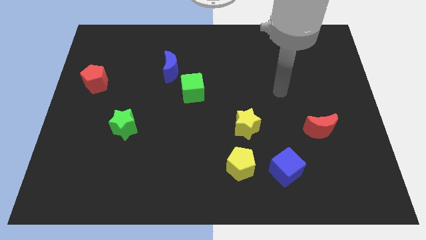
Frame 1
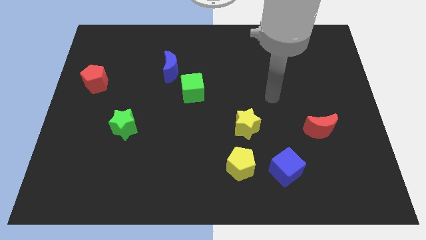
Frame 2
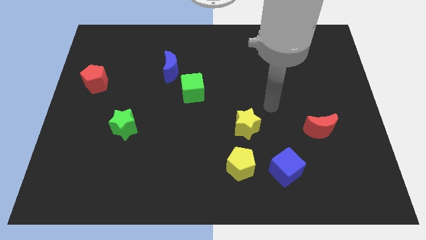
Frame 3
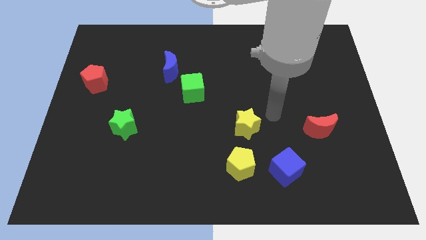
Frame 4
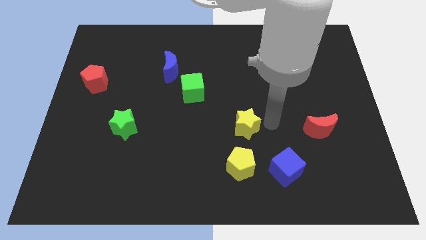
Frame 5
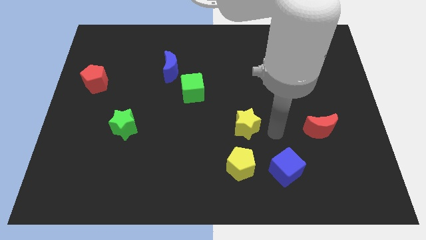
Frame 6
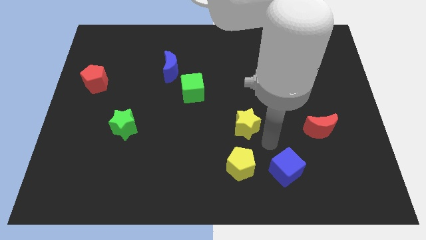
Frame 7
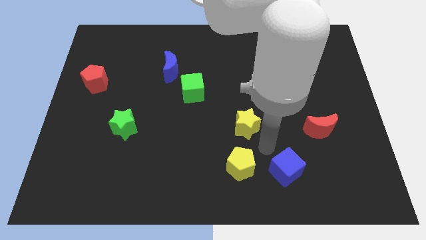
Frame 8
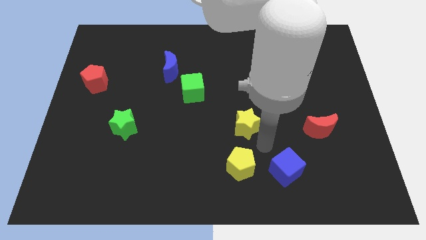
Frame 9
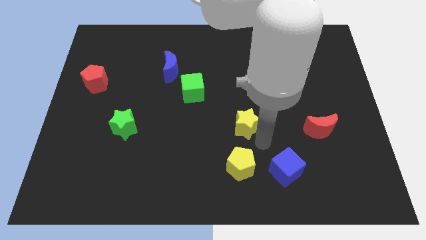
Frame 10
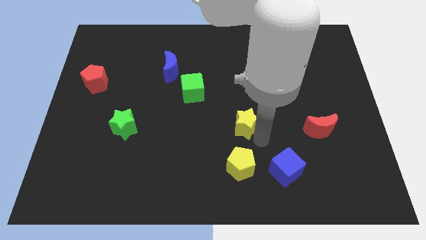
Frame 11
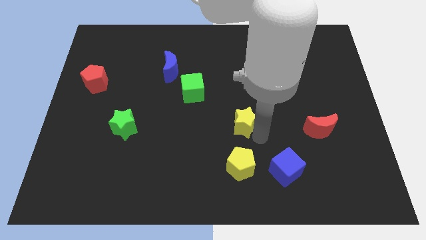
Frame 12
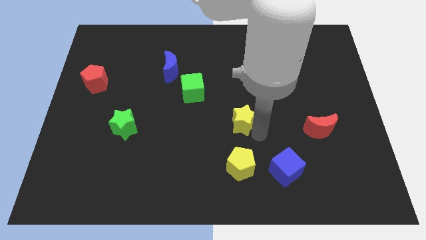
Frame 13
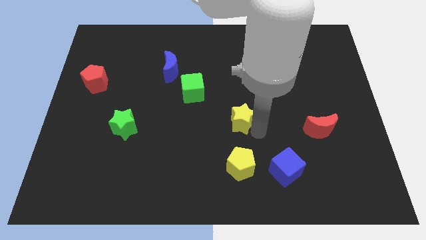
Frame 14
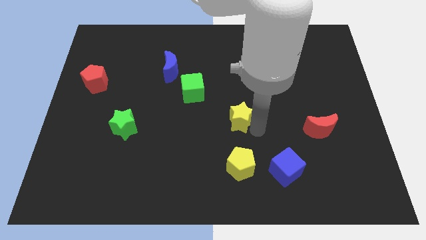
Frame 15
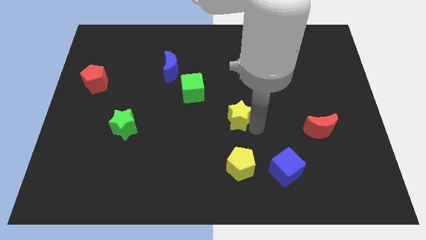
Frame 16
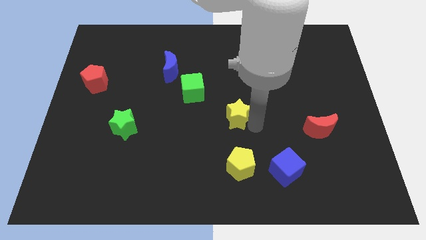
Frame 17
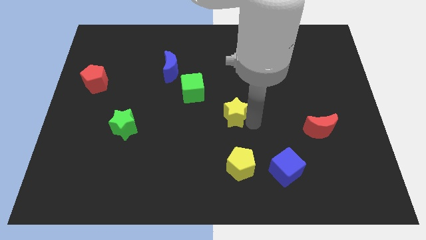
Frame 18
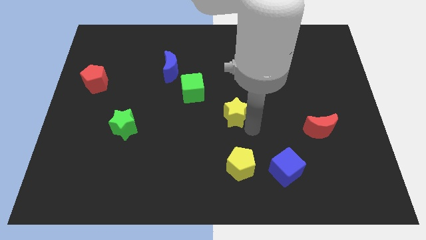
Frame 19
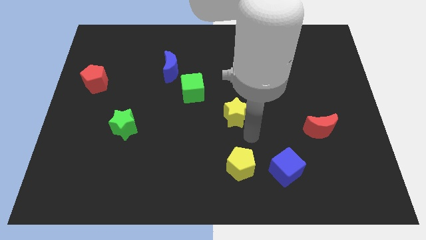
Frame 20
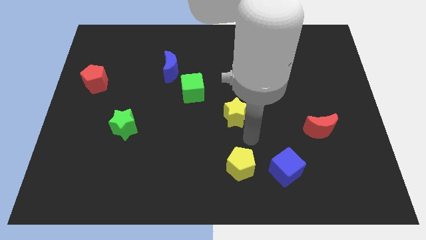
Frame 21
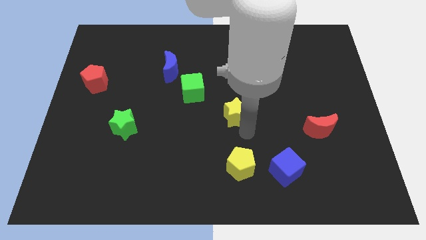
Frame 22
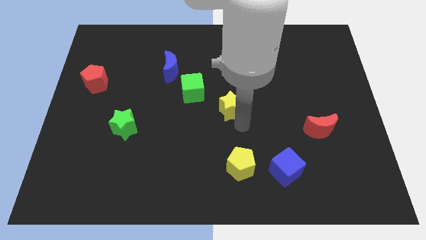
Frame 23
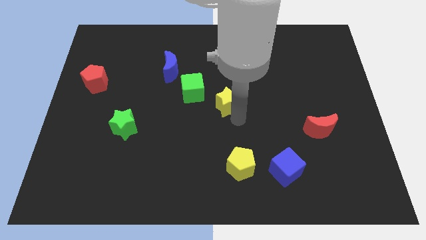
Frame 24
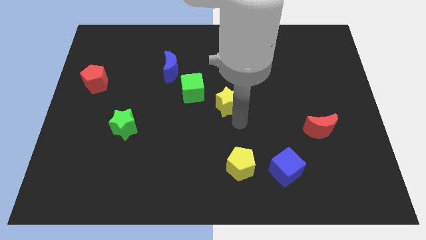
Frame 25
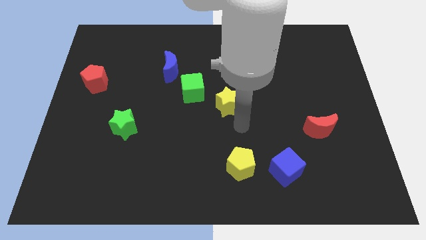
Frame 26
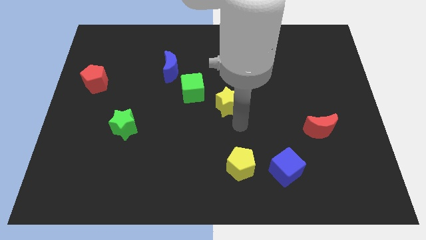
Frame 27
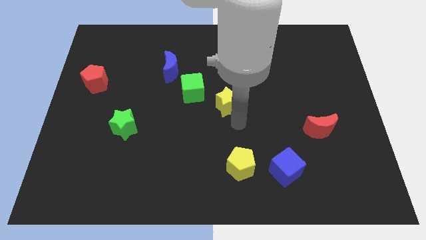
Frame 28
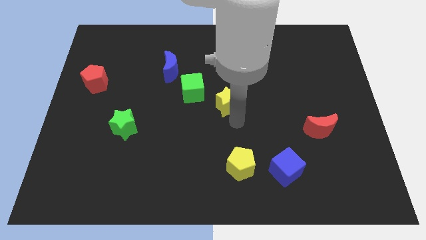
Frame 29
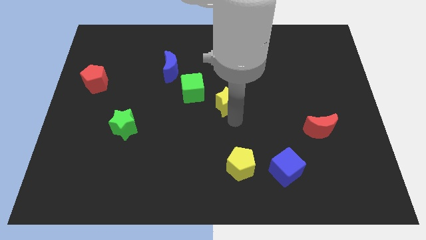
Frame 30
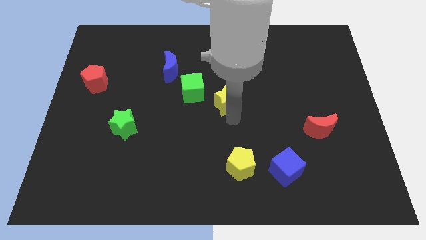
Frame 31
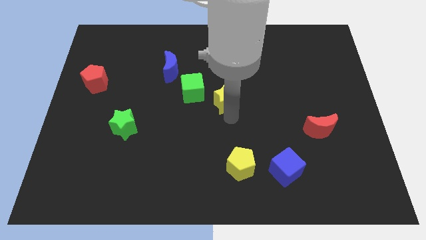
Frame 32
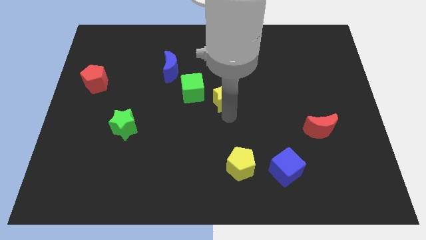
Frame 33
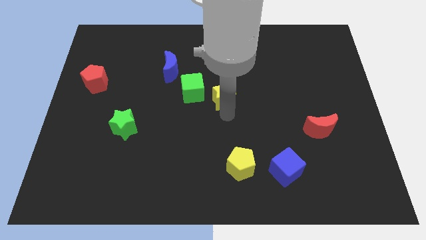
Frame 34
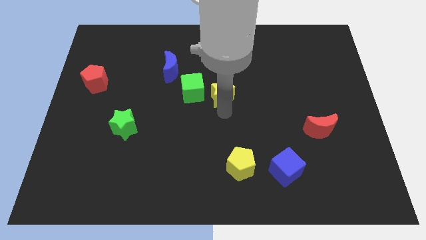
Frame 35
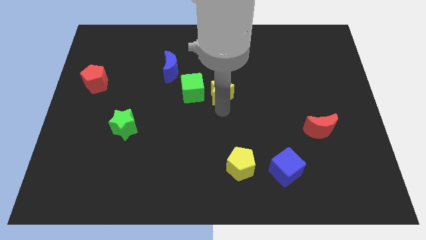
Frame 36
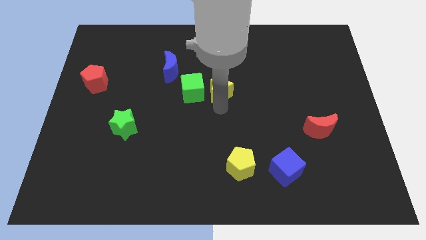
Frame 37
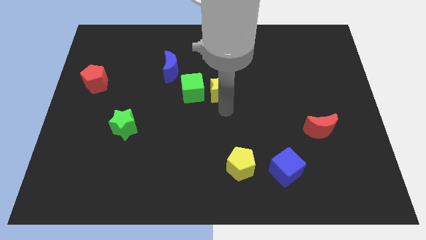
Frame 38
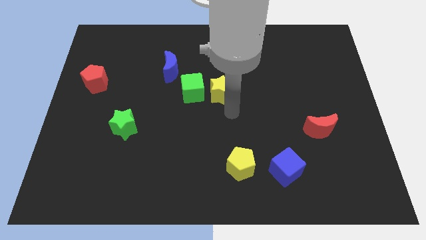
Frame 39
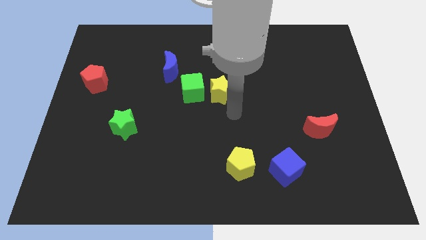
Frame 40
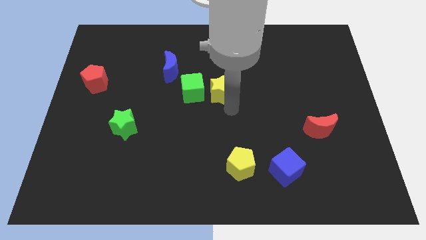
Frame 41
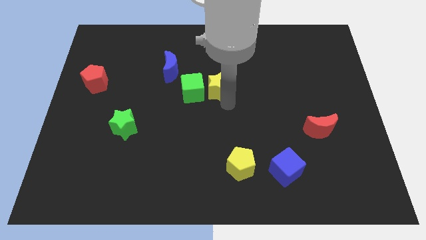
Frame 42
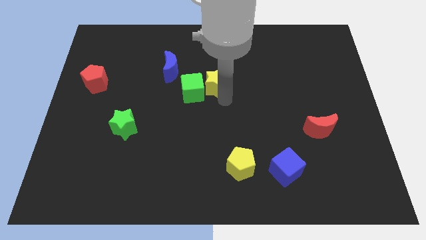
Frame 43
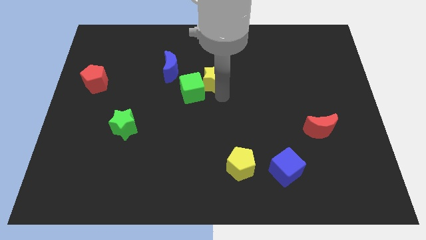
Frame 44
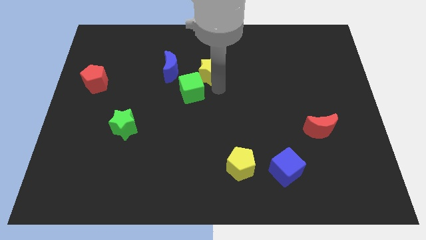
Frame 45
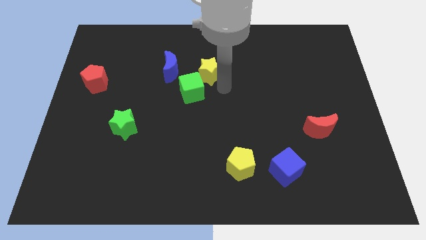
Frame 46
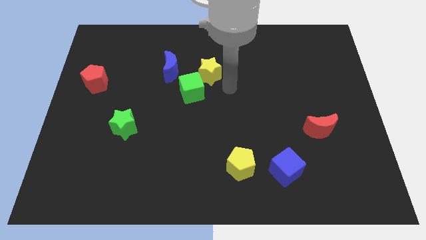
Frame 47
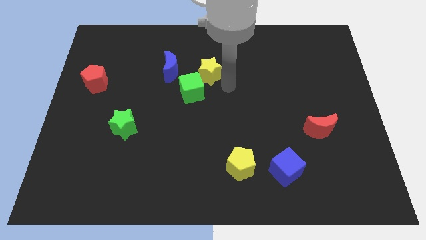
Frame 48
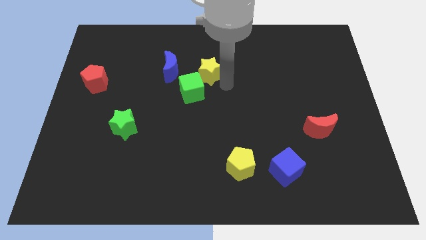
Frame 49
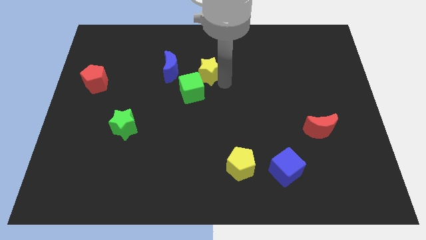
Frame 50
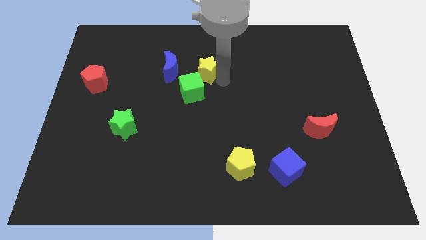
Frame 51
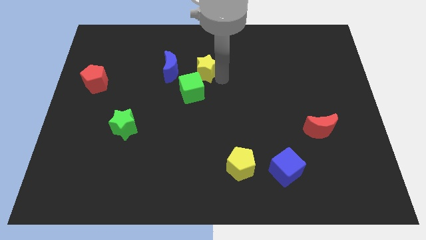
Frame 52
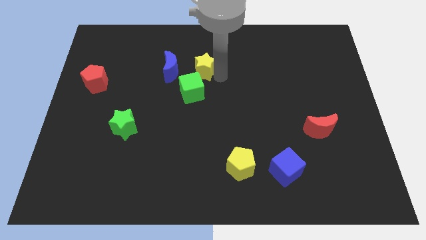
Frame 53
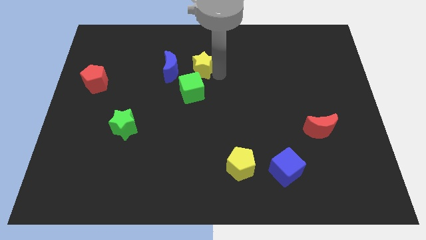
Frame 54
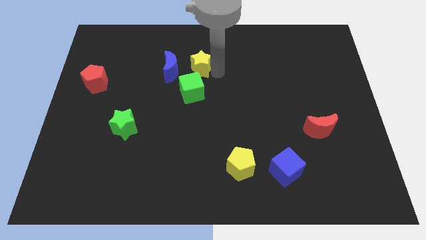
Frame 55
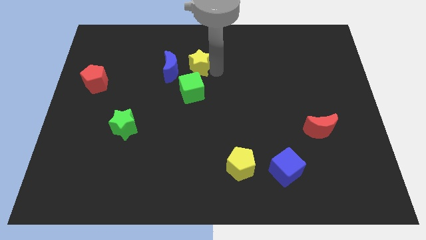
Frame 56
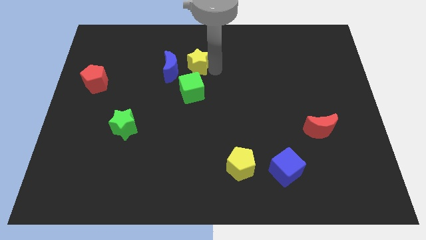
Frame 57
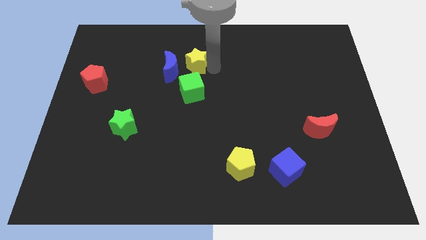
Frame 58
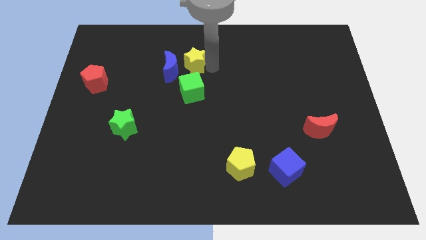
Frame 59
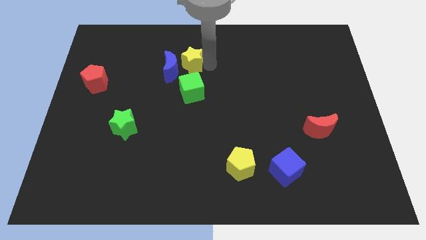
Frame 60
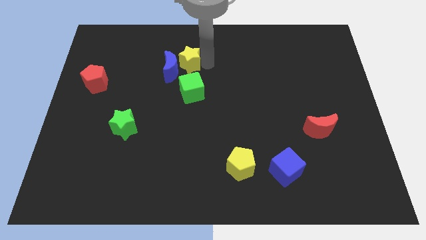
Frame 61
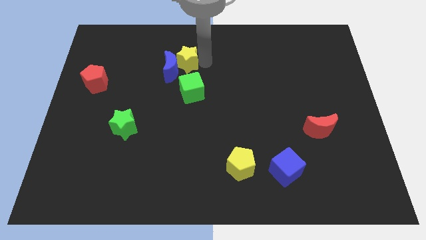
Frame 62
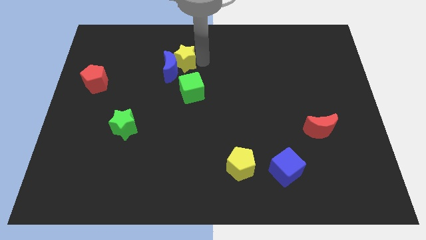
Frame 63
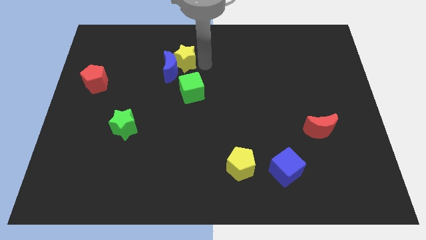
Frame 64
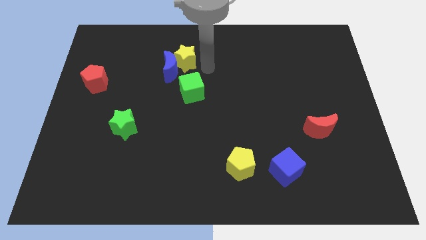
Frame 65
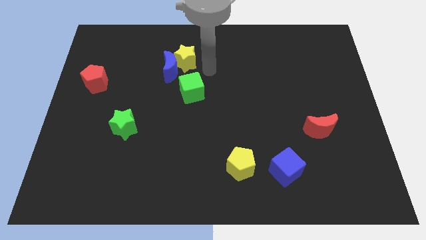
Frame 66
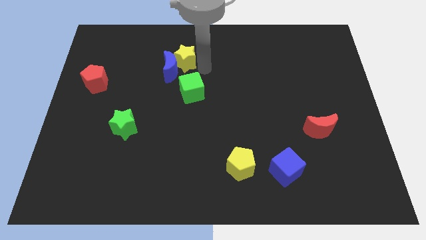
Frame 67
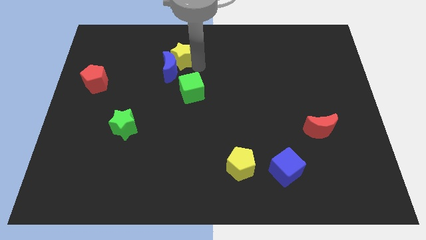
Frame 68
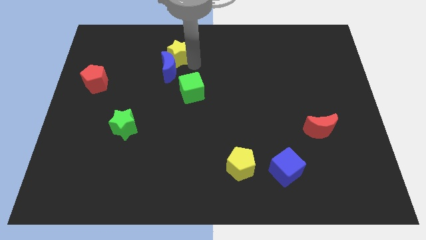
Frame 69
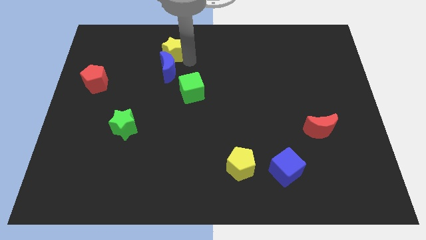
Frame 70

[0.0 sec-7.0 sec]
push the yellow star to the top left of the blue moon

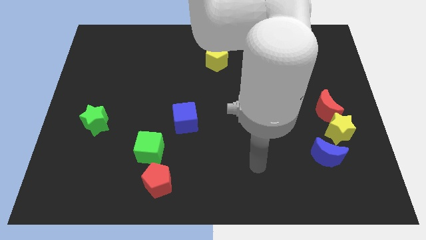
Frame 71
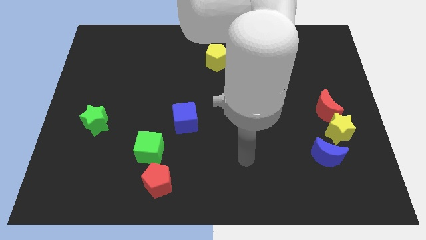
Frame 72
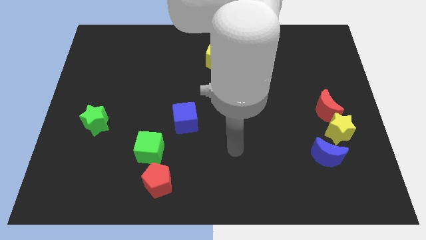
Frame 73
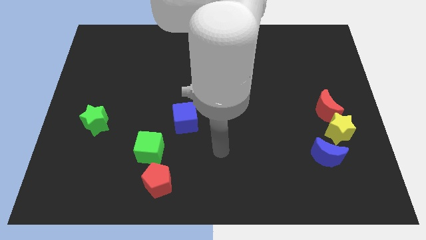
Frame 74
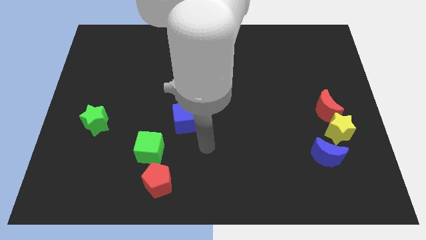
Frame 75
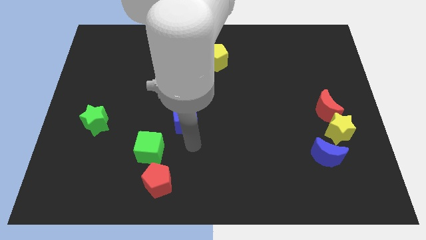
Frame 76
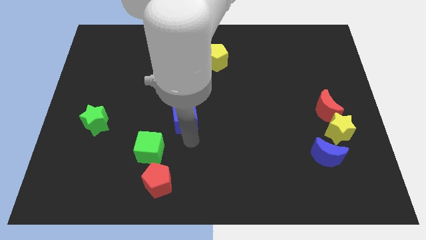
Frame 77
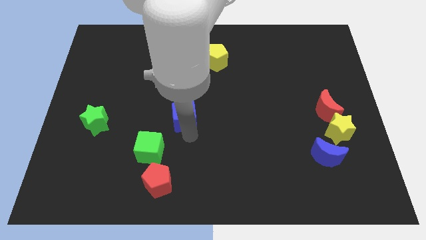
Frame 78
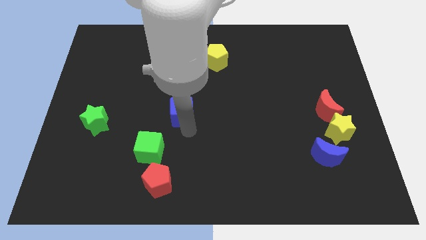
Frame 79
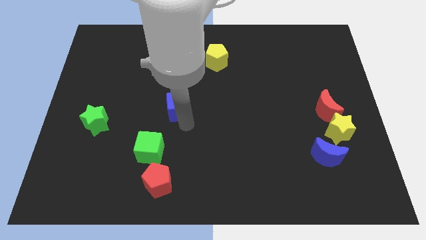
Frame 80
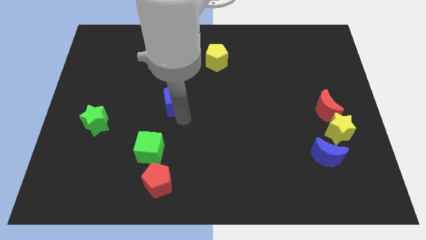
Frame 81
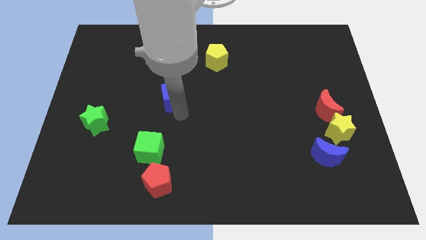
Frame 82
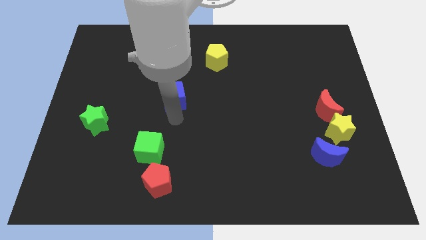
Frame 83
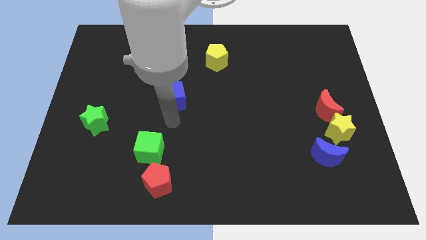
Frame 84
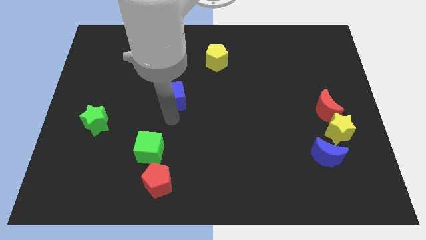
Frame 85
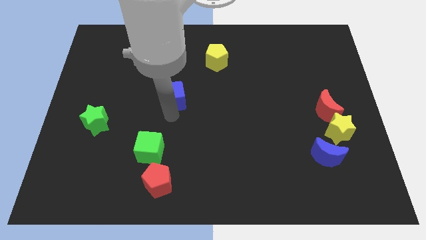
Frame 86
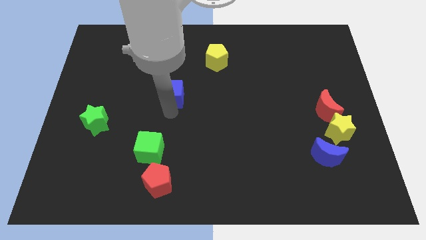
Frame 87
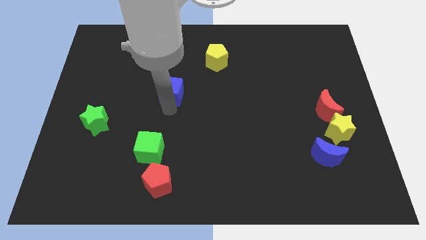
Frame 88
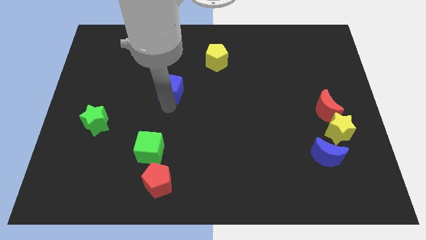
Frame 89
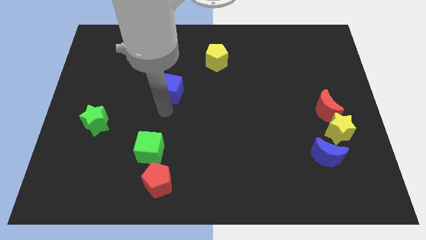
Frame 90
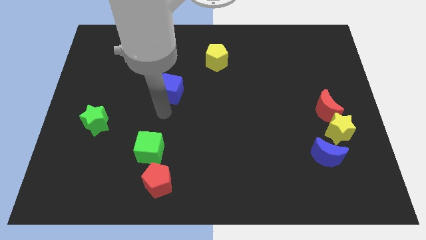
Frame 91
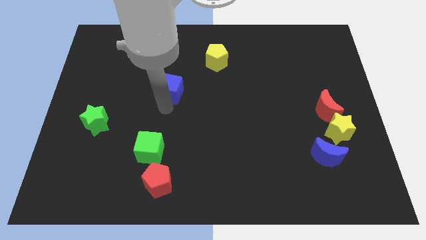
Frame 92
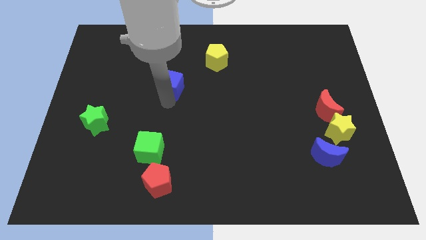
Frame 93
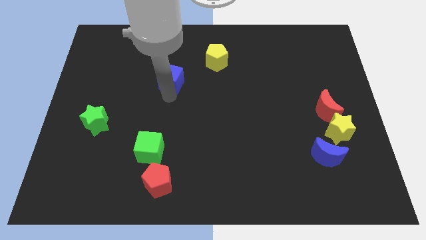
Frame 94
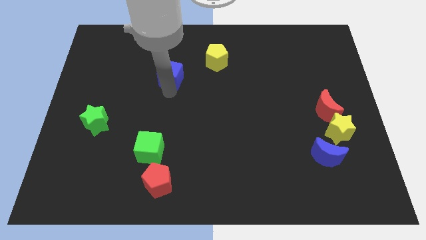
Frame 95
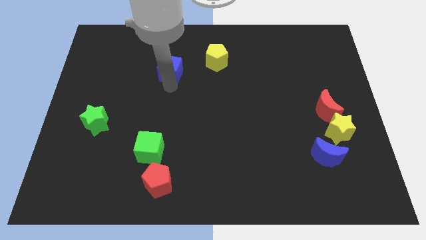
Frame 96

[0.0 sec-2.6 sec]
move the blue cube to the left side of the yellow pentagon
